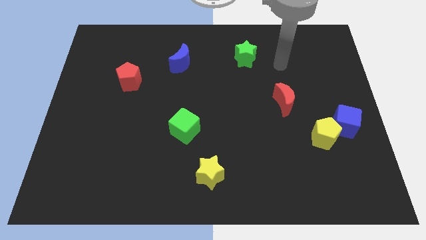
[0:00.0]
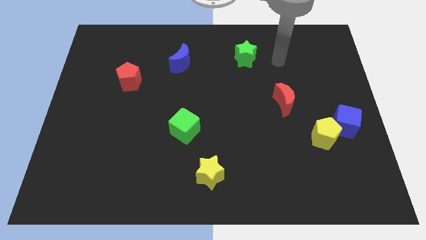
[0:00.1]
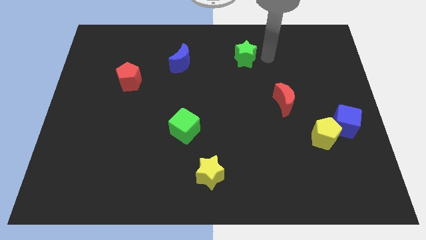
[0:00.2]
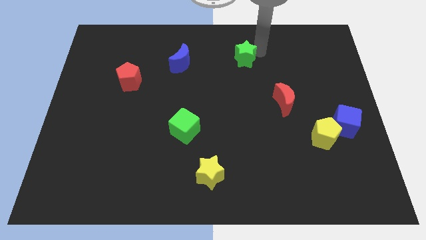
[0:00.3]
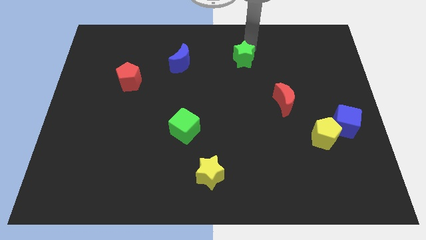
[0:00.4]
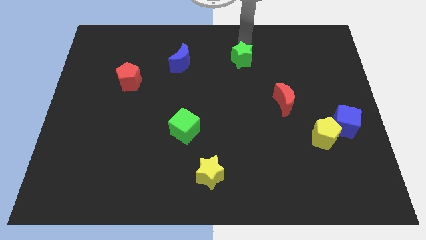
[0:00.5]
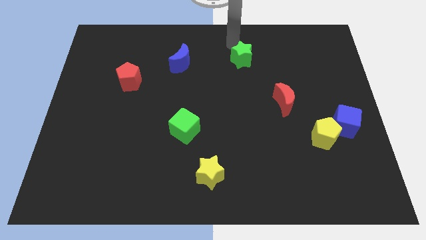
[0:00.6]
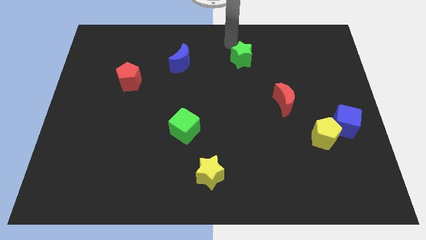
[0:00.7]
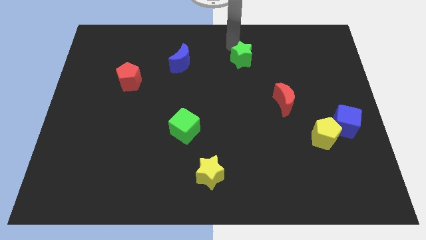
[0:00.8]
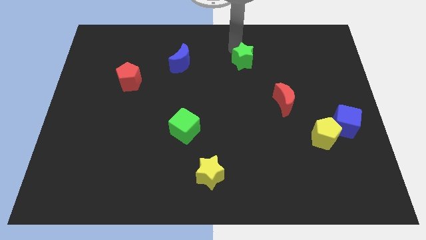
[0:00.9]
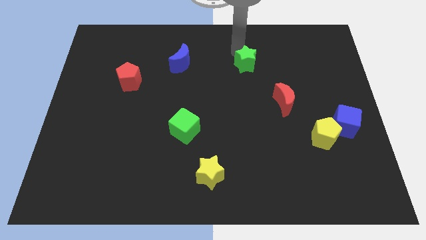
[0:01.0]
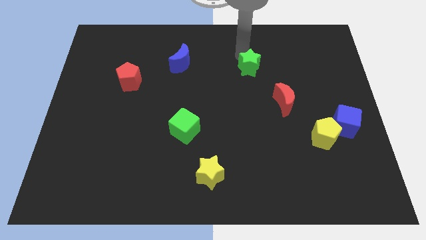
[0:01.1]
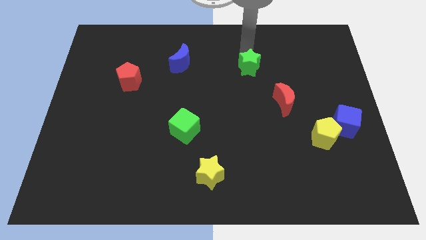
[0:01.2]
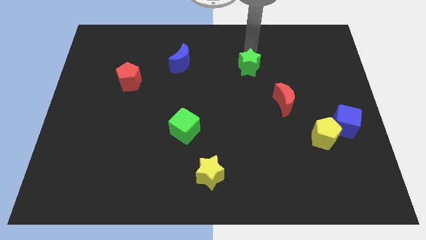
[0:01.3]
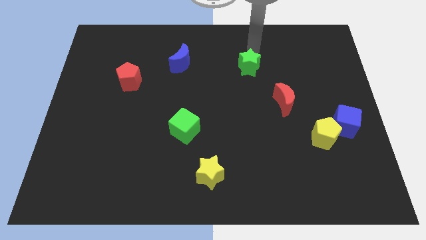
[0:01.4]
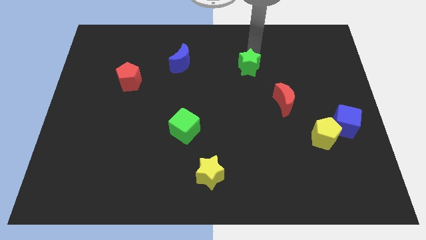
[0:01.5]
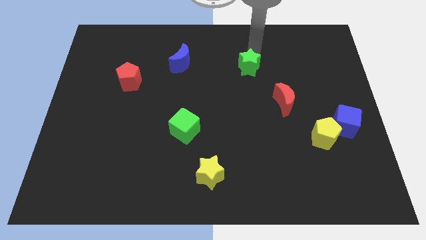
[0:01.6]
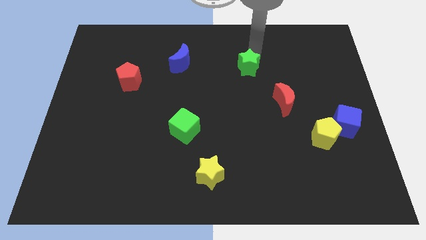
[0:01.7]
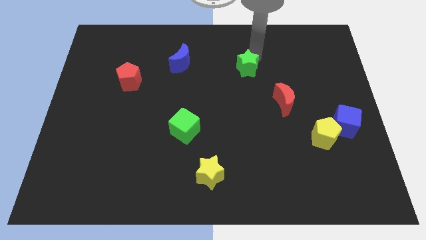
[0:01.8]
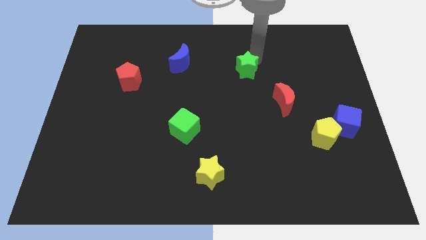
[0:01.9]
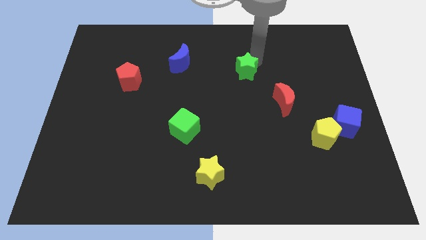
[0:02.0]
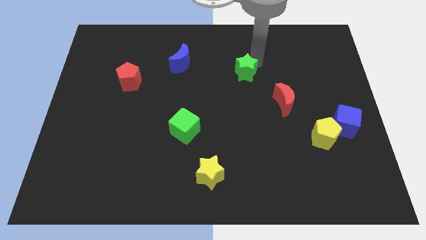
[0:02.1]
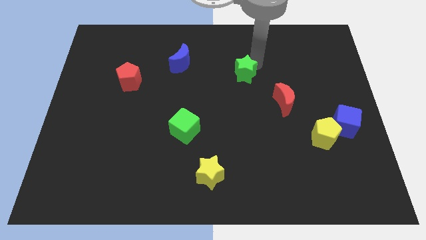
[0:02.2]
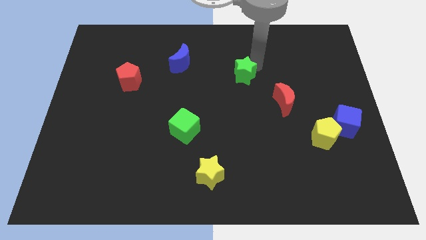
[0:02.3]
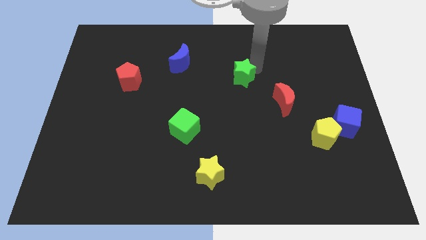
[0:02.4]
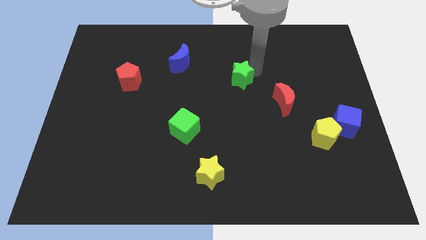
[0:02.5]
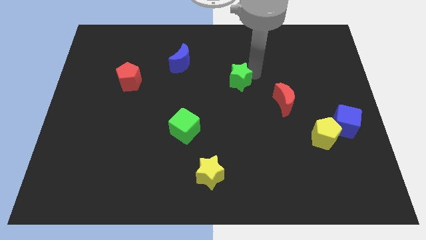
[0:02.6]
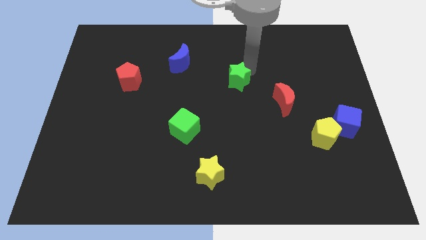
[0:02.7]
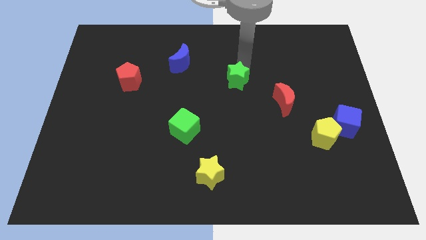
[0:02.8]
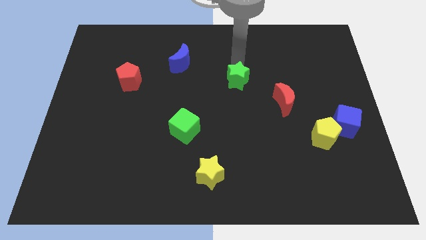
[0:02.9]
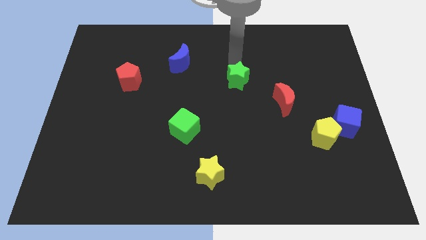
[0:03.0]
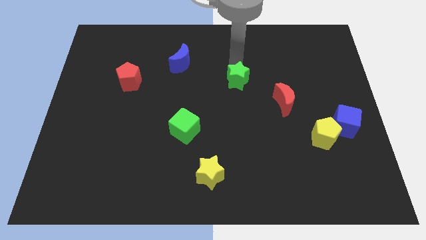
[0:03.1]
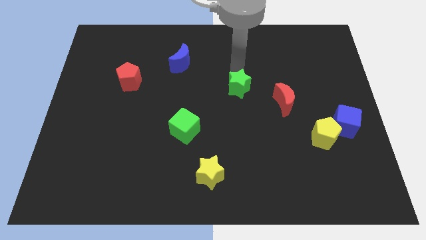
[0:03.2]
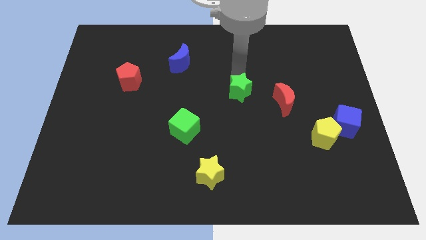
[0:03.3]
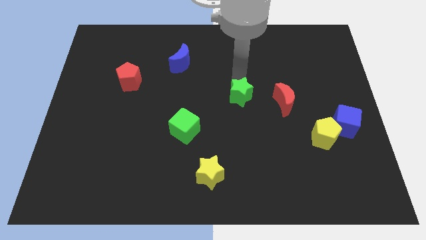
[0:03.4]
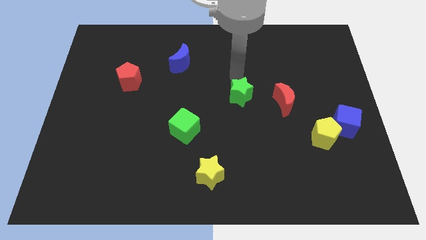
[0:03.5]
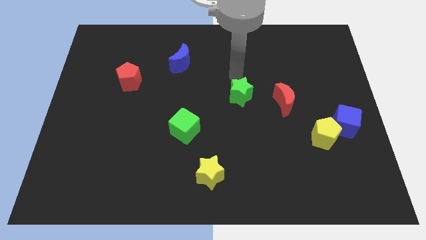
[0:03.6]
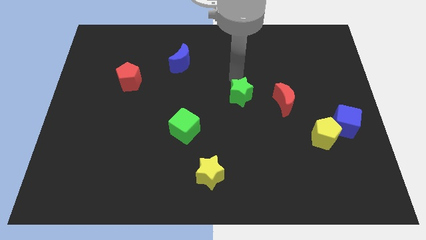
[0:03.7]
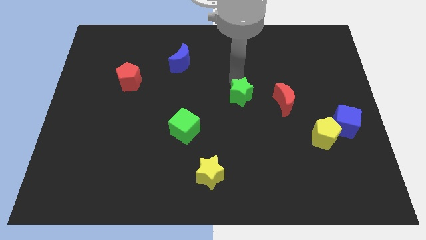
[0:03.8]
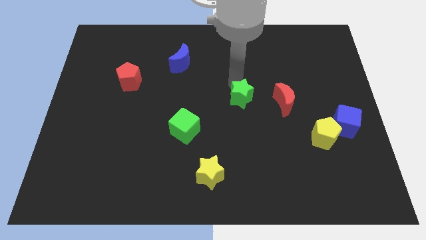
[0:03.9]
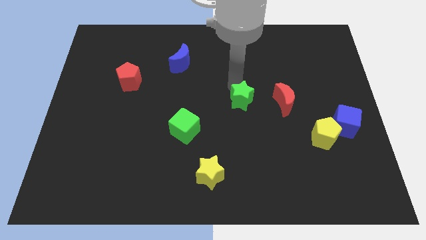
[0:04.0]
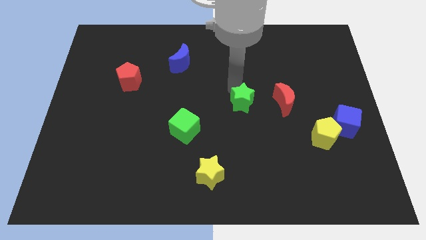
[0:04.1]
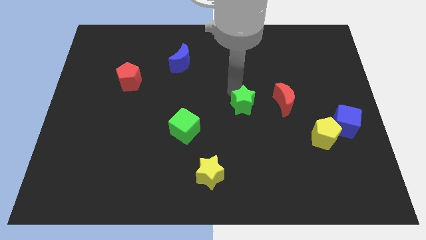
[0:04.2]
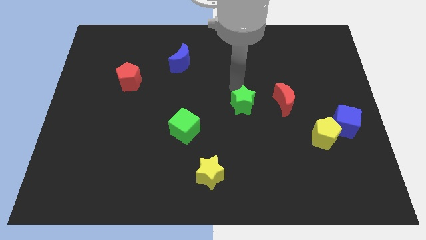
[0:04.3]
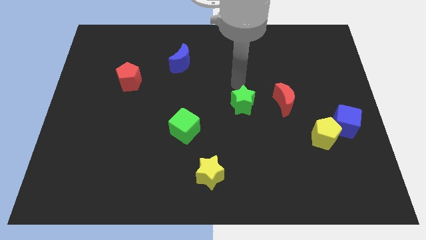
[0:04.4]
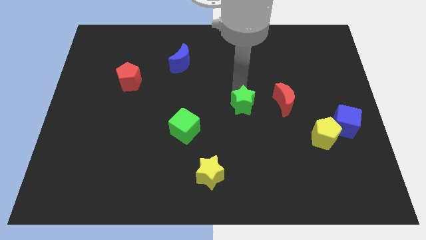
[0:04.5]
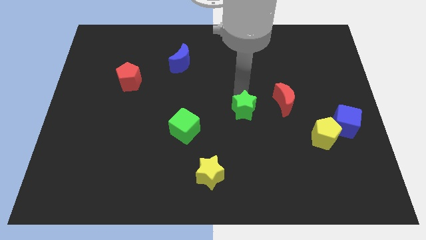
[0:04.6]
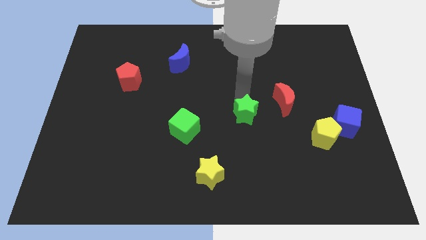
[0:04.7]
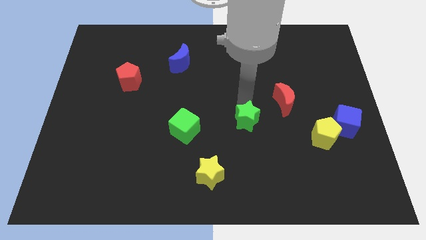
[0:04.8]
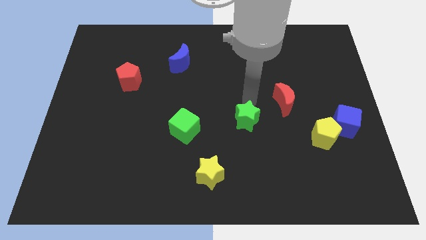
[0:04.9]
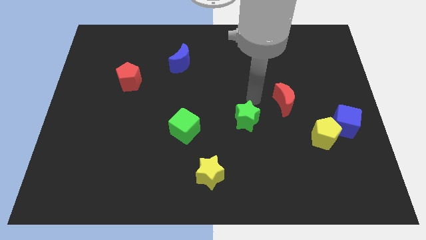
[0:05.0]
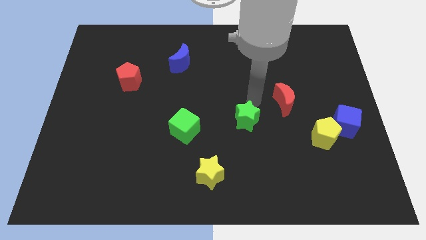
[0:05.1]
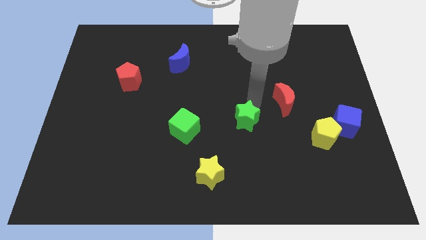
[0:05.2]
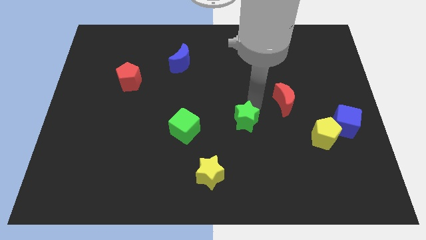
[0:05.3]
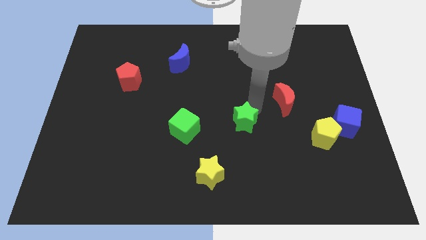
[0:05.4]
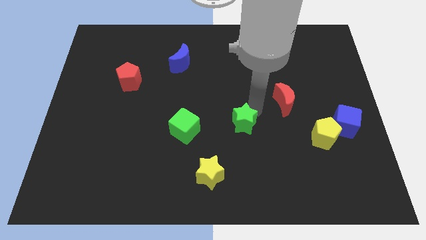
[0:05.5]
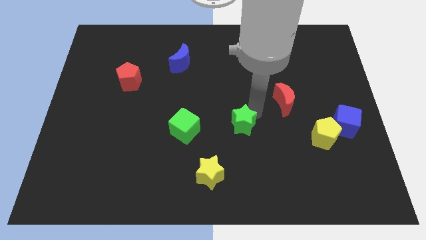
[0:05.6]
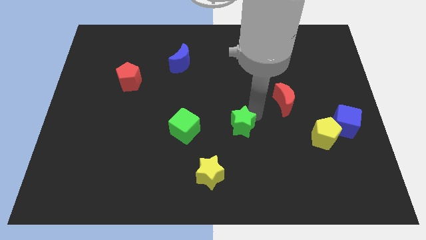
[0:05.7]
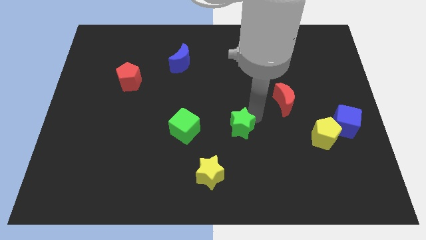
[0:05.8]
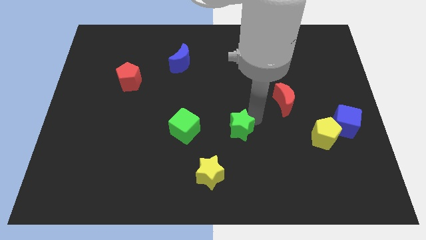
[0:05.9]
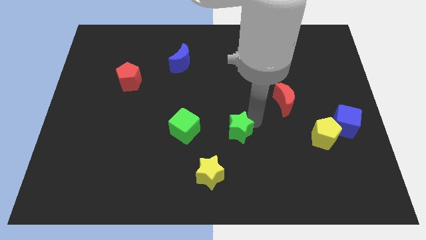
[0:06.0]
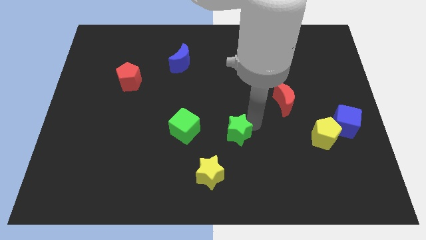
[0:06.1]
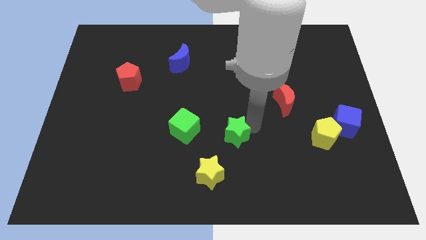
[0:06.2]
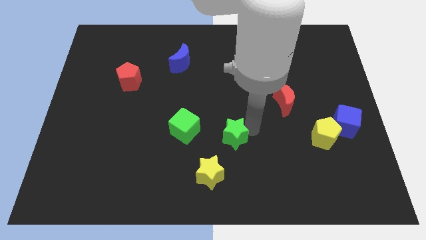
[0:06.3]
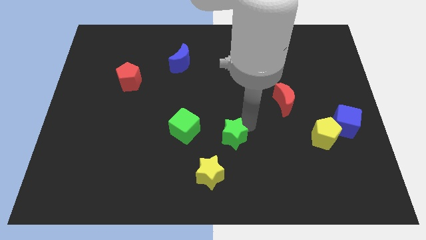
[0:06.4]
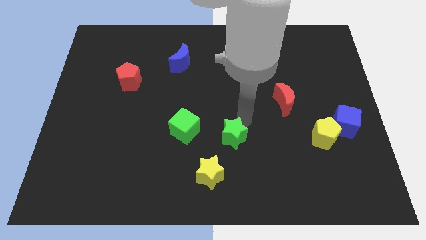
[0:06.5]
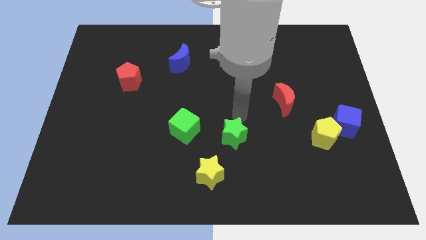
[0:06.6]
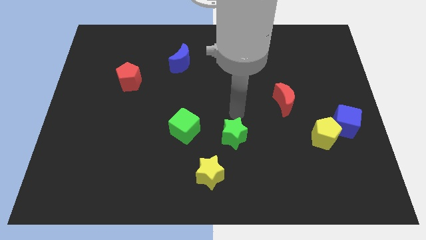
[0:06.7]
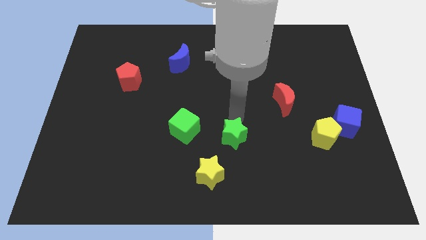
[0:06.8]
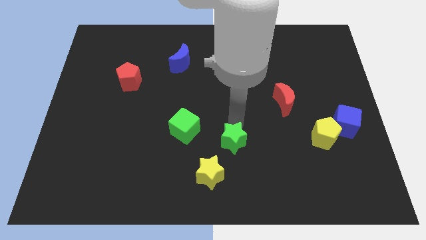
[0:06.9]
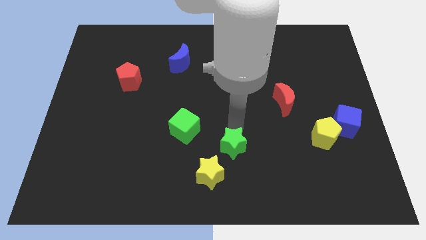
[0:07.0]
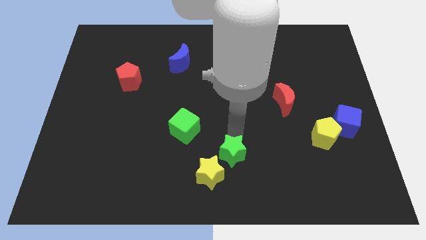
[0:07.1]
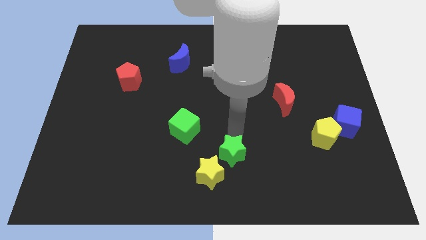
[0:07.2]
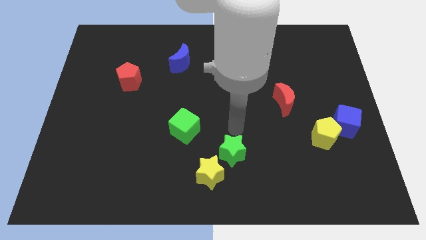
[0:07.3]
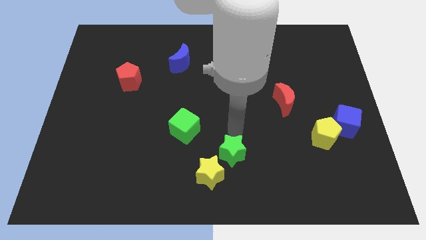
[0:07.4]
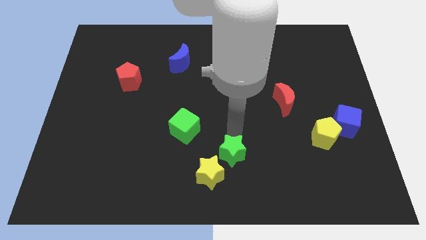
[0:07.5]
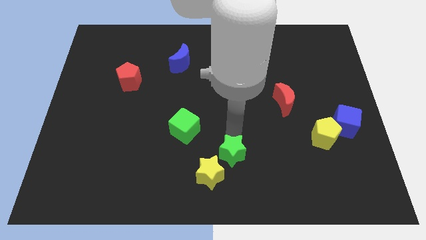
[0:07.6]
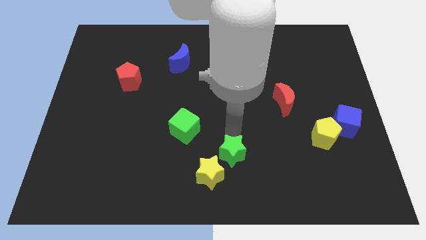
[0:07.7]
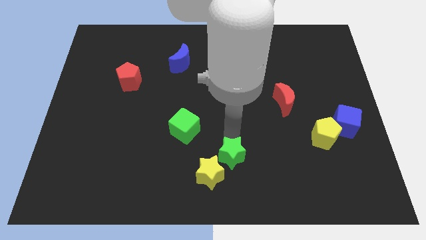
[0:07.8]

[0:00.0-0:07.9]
put the green star to the bottom side
